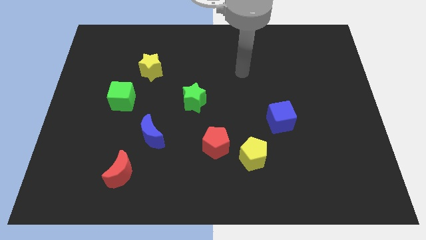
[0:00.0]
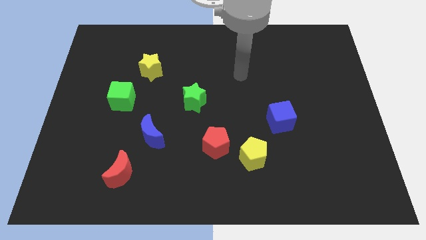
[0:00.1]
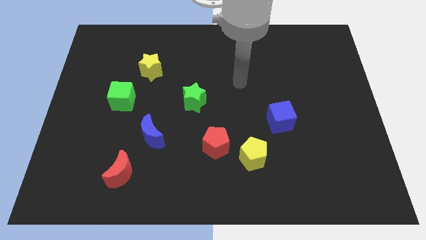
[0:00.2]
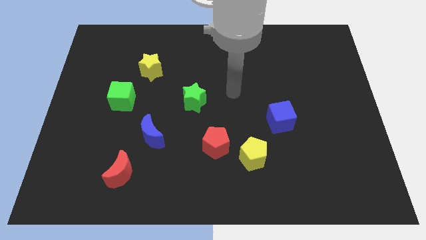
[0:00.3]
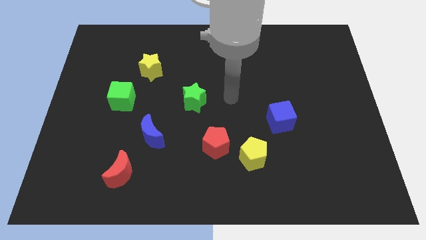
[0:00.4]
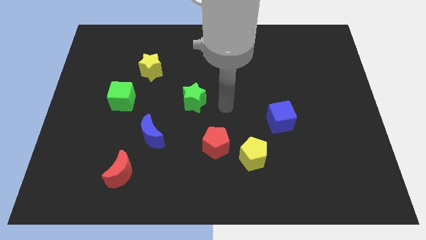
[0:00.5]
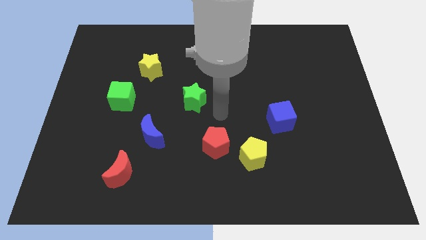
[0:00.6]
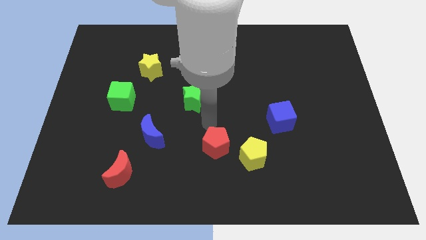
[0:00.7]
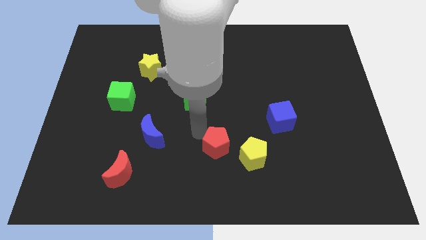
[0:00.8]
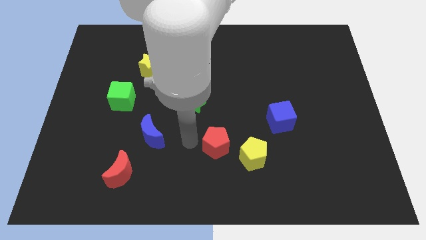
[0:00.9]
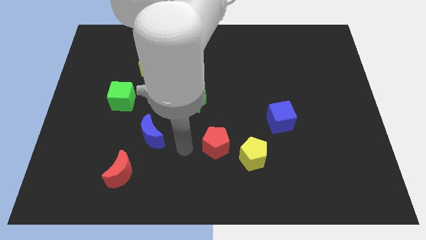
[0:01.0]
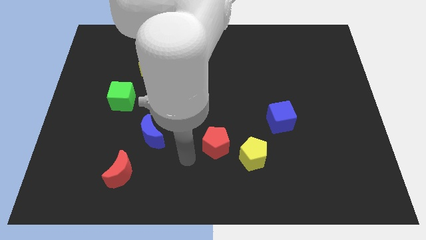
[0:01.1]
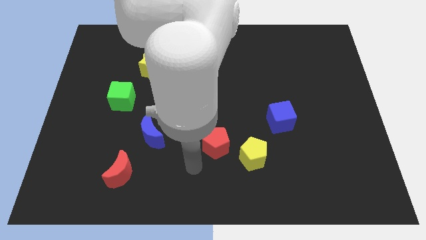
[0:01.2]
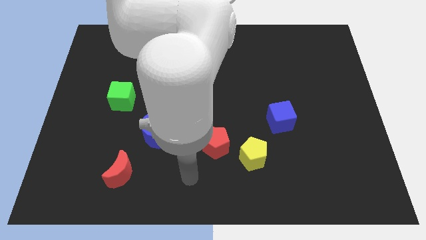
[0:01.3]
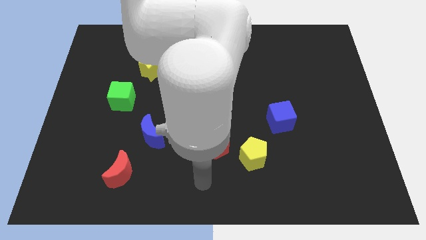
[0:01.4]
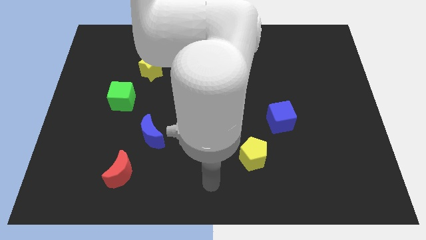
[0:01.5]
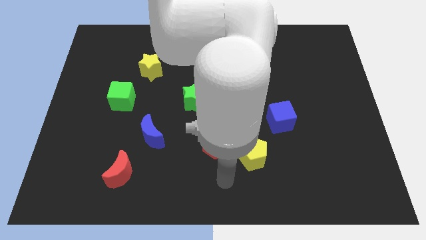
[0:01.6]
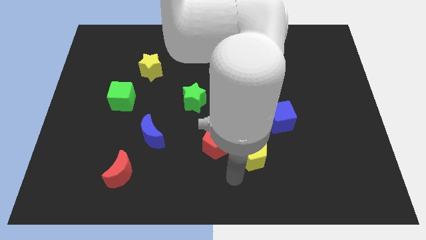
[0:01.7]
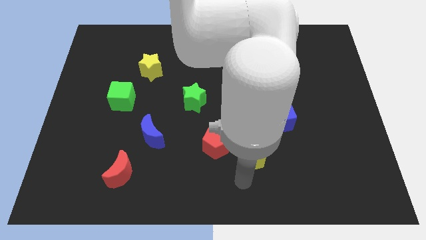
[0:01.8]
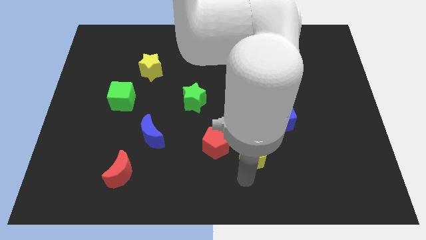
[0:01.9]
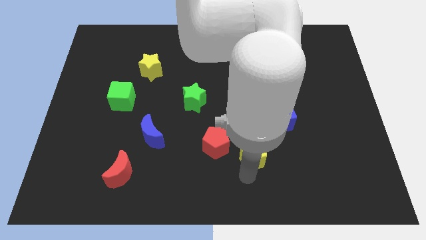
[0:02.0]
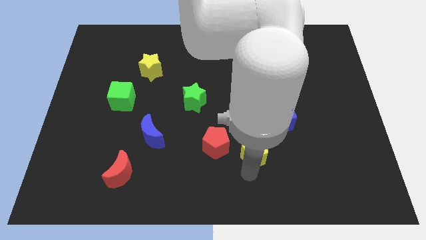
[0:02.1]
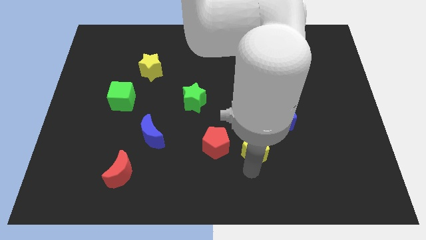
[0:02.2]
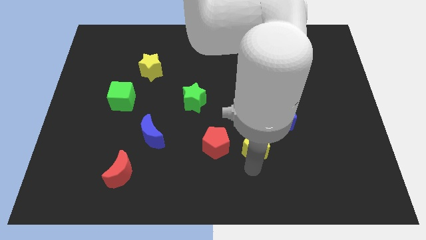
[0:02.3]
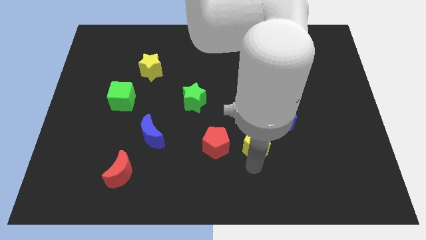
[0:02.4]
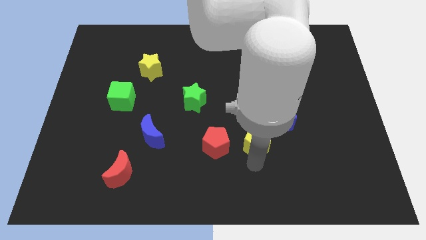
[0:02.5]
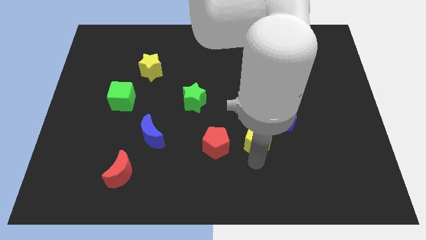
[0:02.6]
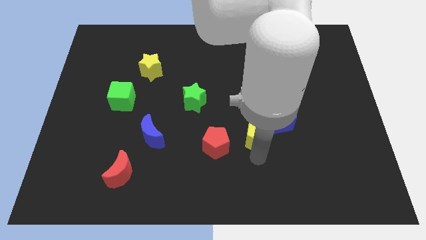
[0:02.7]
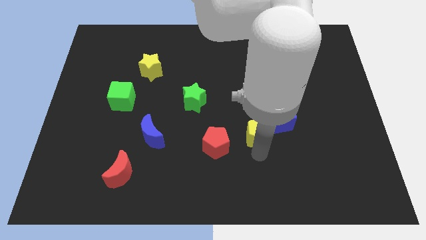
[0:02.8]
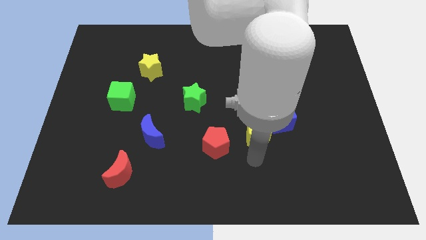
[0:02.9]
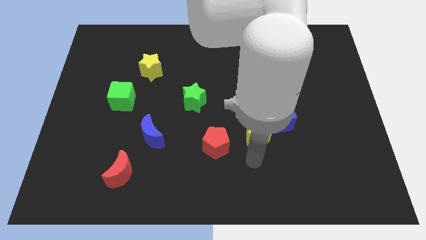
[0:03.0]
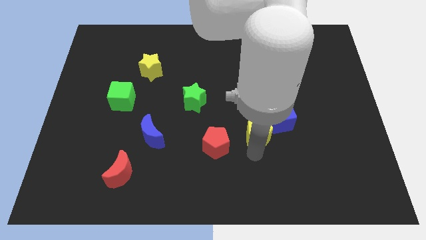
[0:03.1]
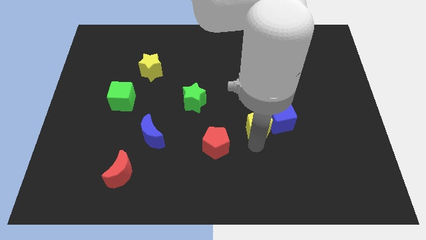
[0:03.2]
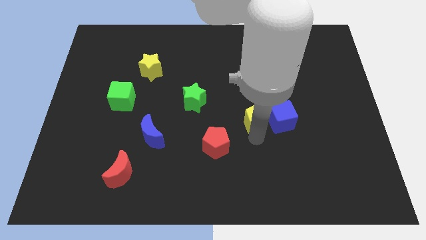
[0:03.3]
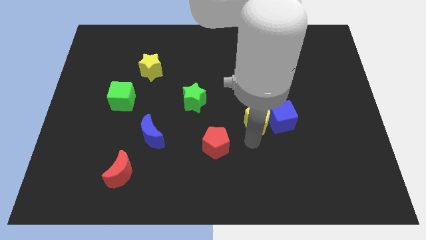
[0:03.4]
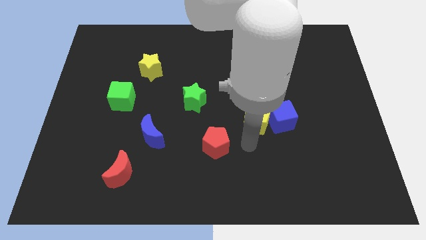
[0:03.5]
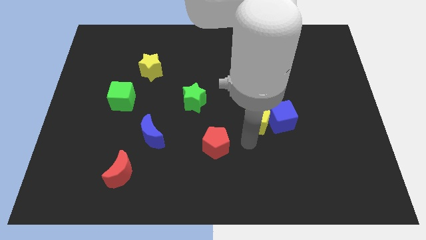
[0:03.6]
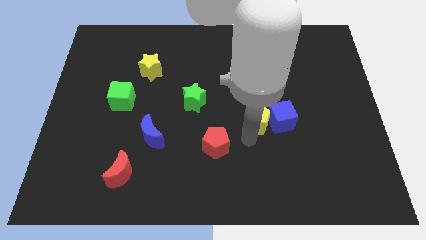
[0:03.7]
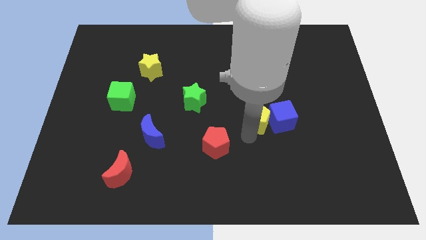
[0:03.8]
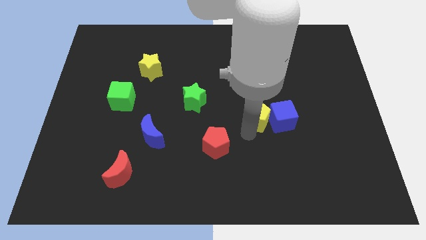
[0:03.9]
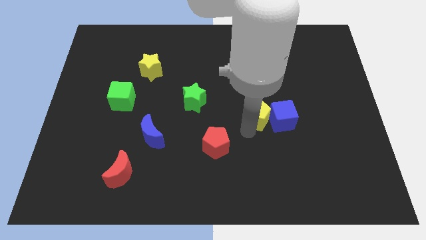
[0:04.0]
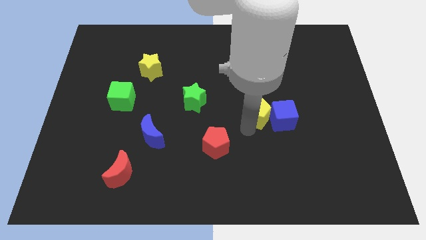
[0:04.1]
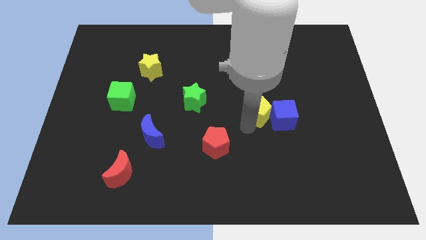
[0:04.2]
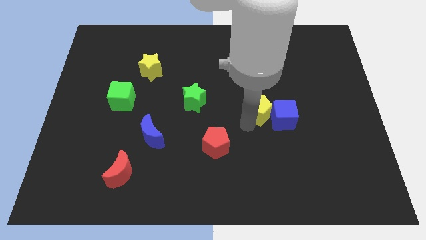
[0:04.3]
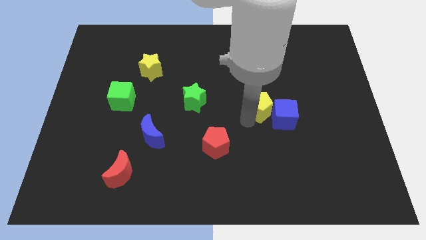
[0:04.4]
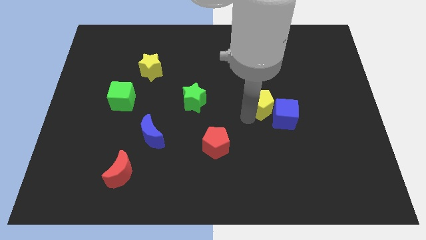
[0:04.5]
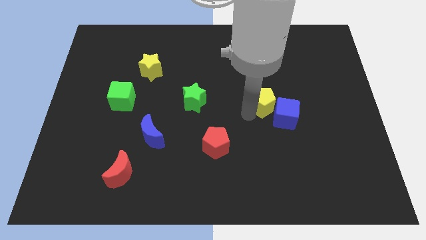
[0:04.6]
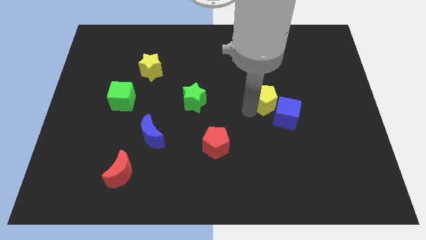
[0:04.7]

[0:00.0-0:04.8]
push the yellow pentagon to the top of the blue cube

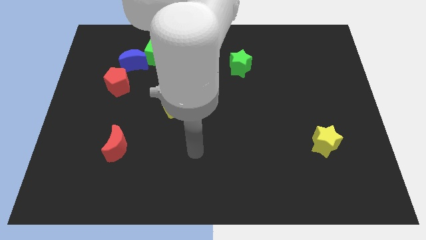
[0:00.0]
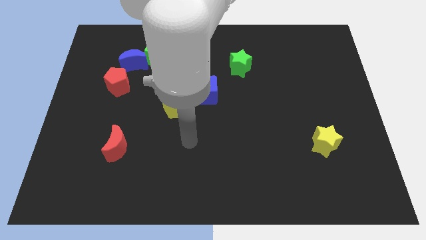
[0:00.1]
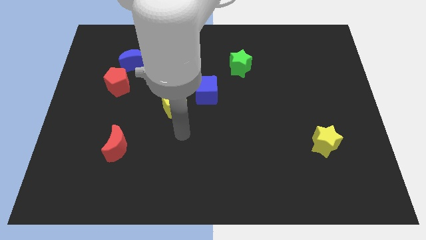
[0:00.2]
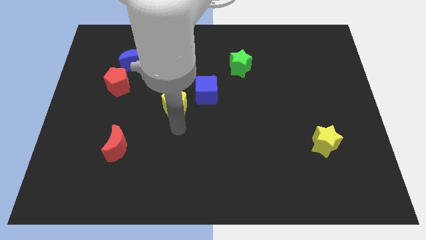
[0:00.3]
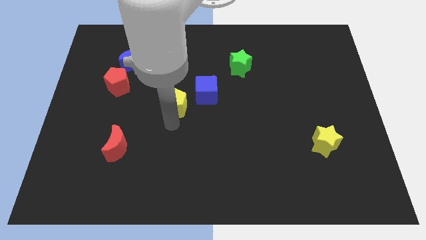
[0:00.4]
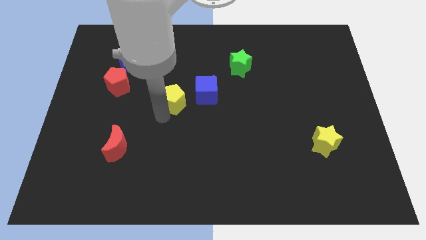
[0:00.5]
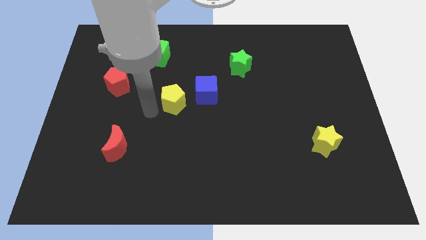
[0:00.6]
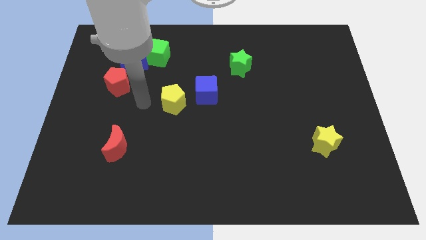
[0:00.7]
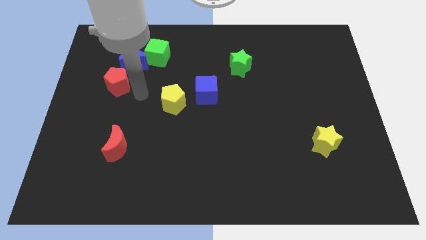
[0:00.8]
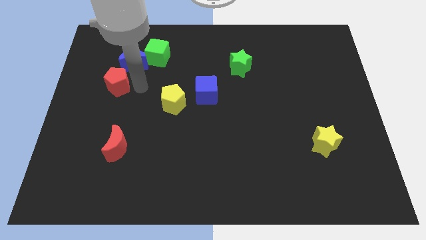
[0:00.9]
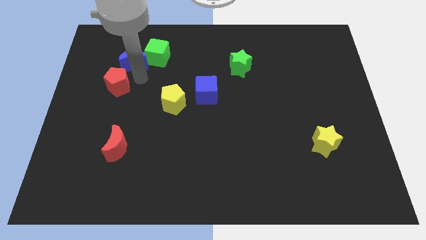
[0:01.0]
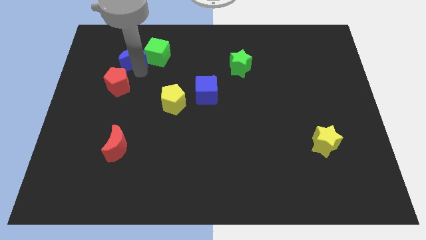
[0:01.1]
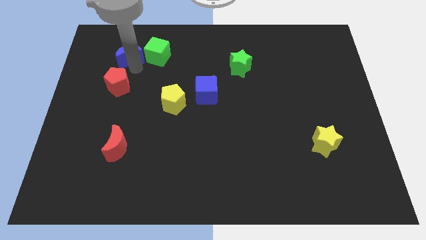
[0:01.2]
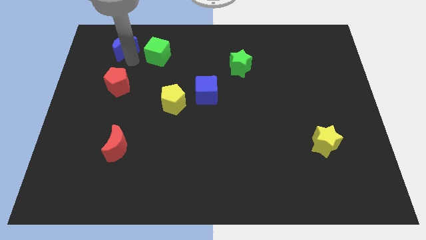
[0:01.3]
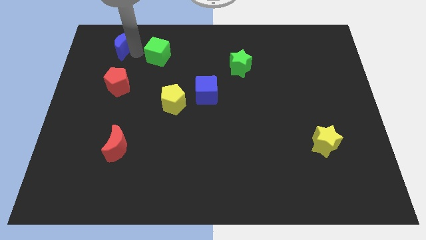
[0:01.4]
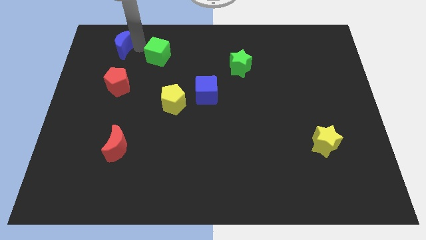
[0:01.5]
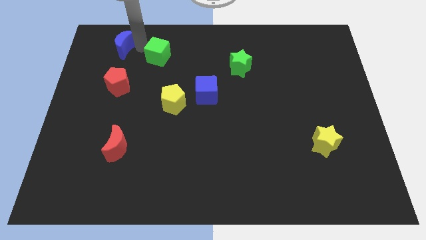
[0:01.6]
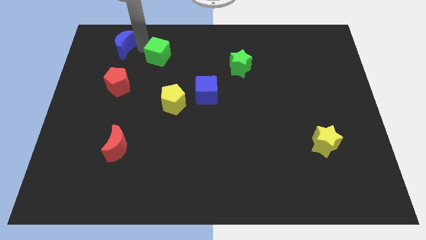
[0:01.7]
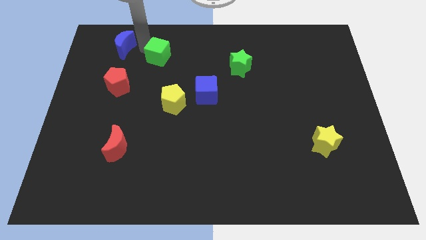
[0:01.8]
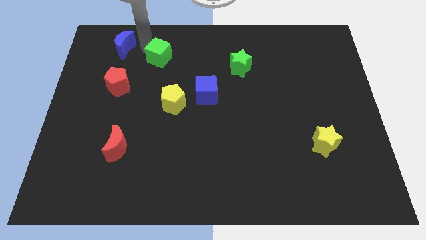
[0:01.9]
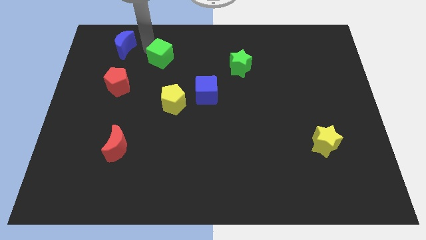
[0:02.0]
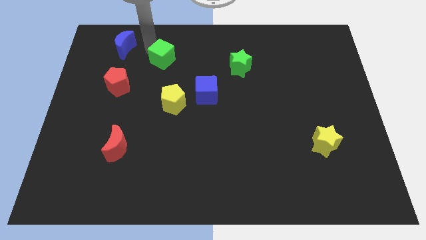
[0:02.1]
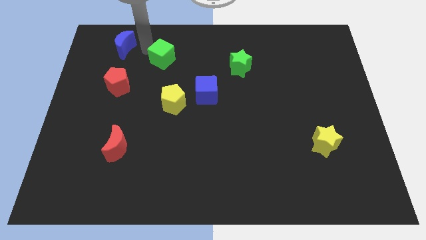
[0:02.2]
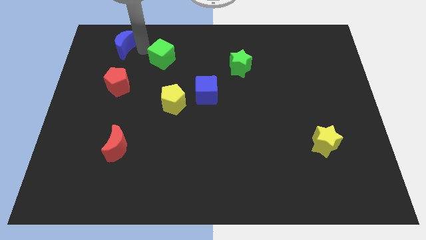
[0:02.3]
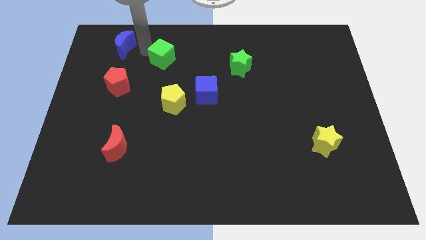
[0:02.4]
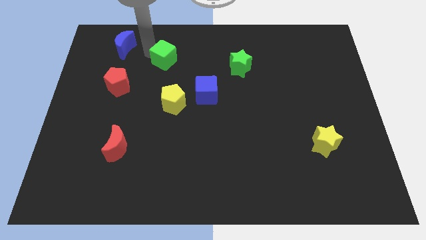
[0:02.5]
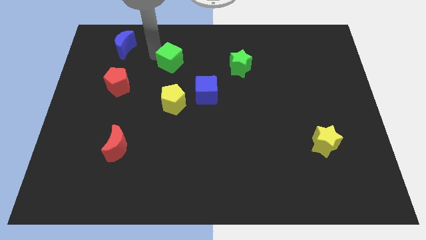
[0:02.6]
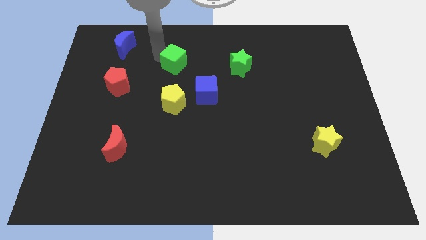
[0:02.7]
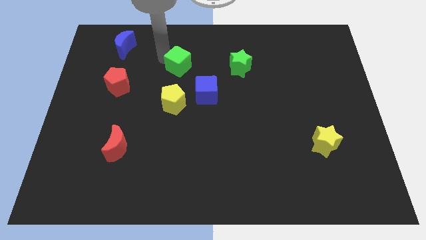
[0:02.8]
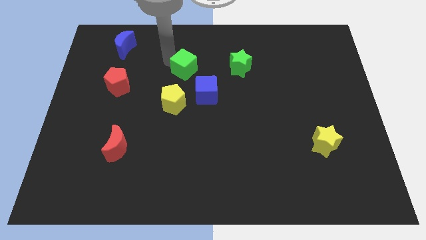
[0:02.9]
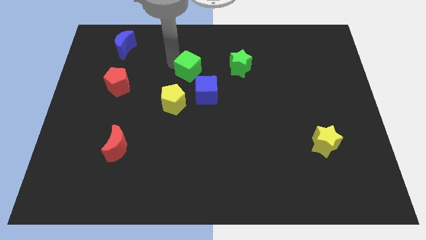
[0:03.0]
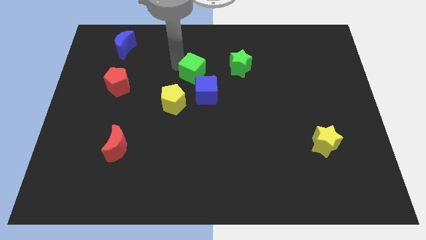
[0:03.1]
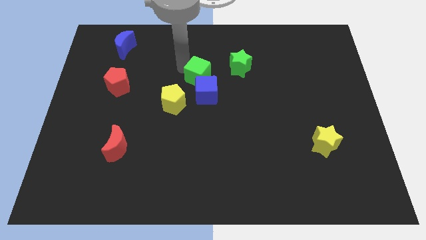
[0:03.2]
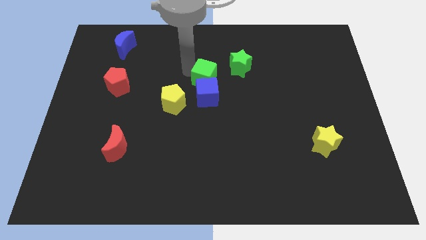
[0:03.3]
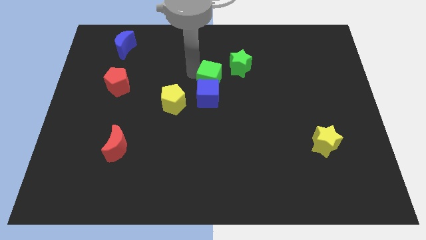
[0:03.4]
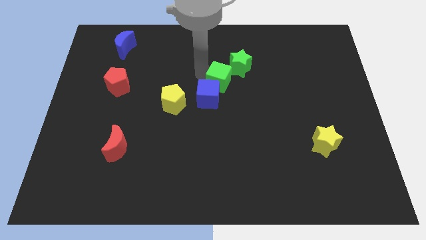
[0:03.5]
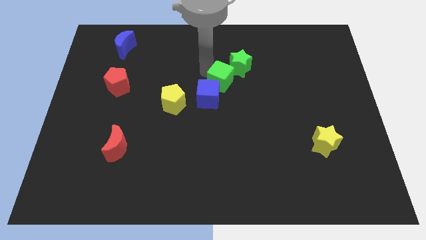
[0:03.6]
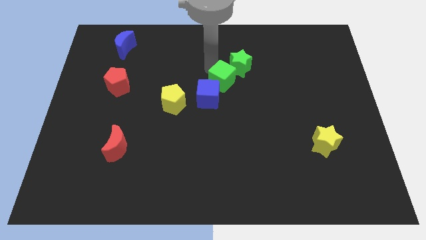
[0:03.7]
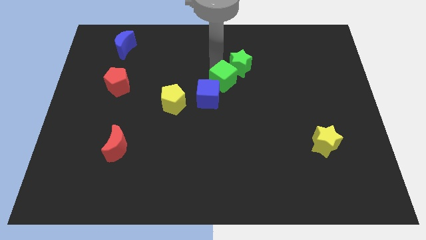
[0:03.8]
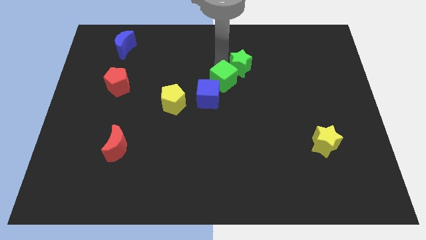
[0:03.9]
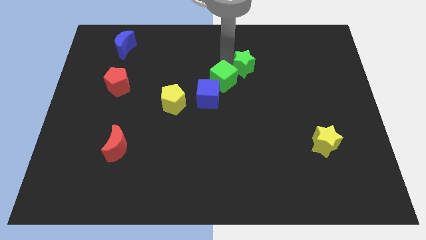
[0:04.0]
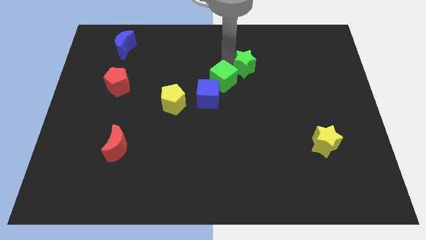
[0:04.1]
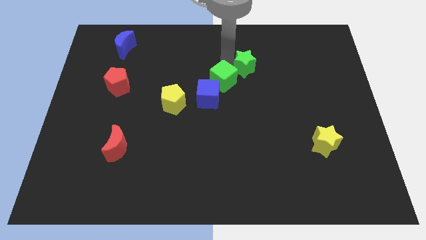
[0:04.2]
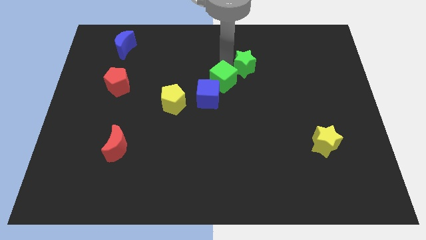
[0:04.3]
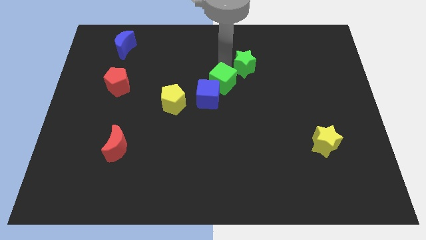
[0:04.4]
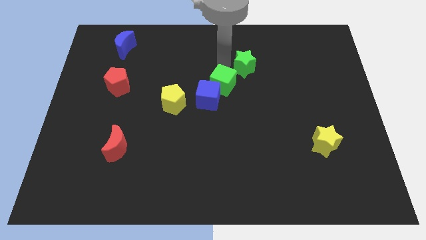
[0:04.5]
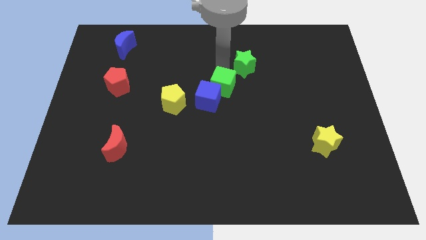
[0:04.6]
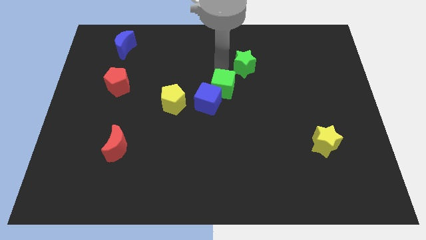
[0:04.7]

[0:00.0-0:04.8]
put the green cube to the right of the yellow pentagon
